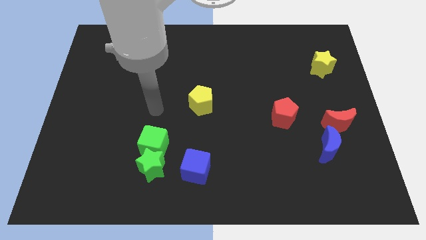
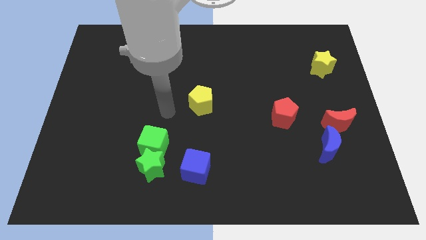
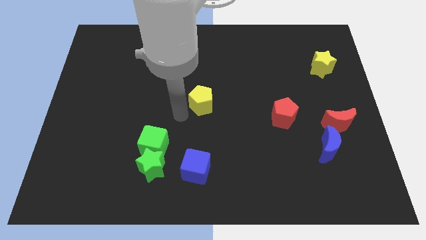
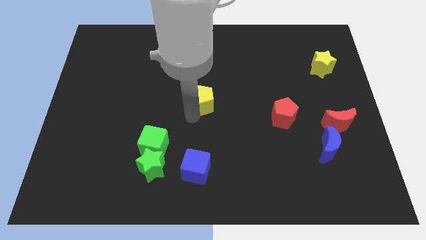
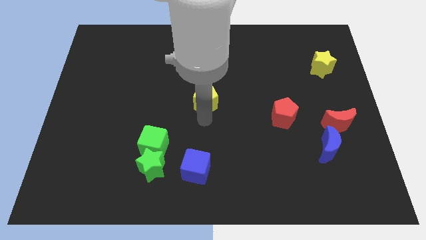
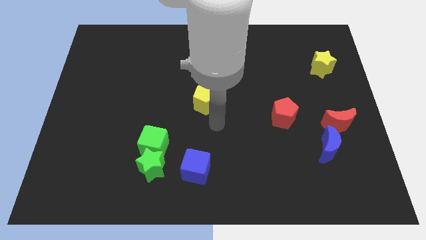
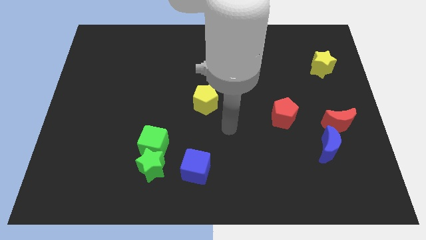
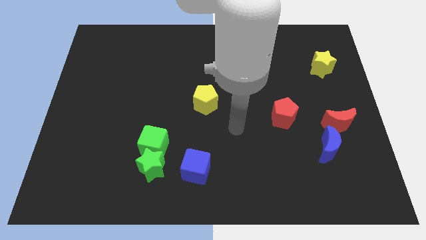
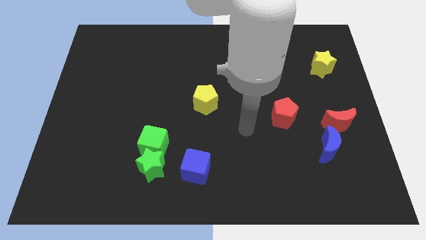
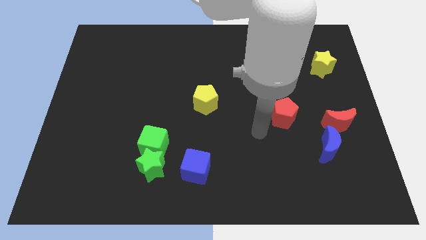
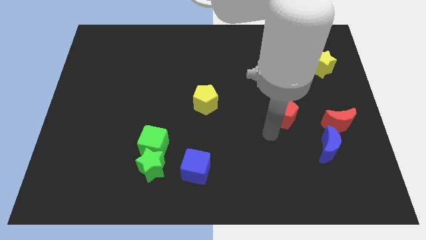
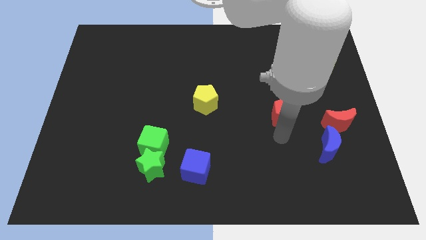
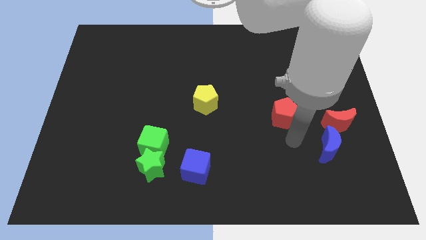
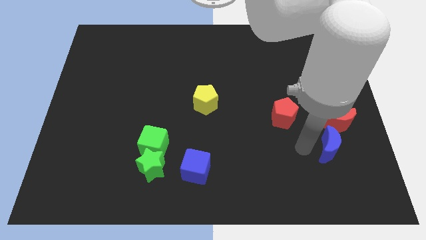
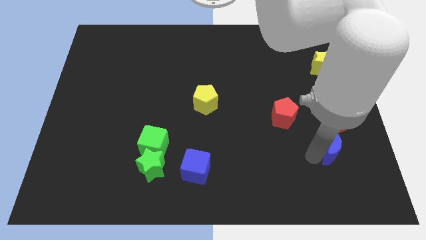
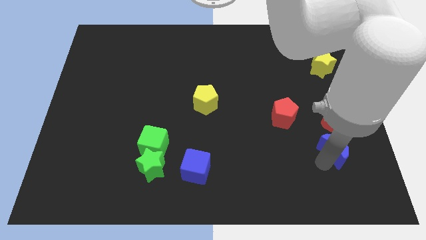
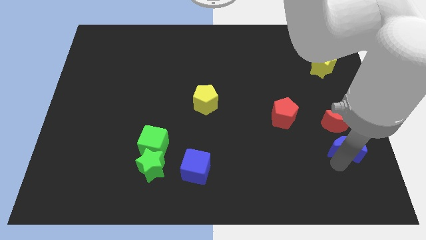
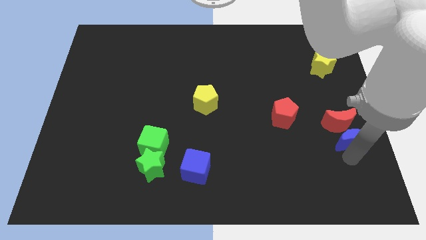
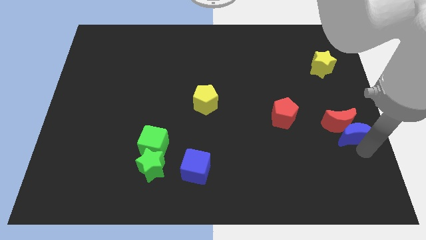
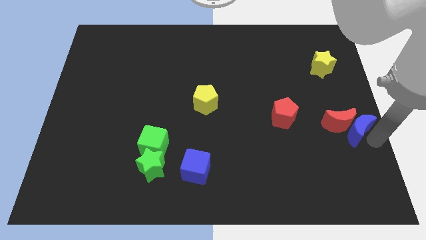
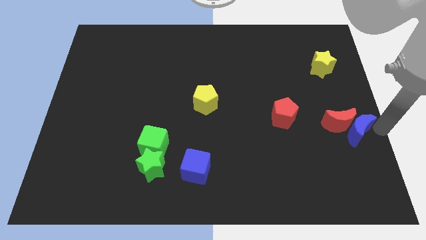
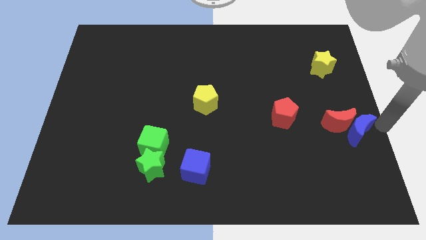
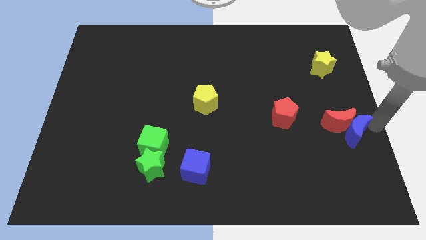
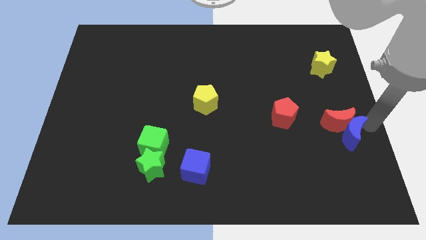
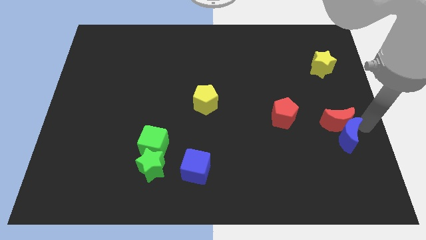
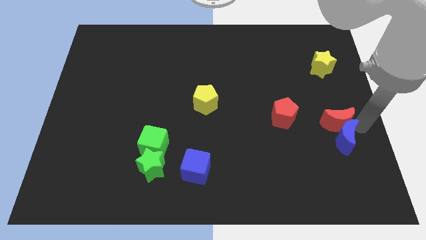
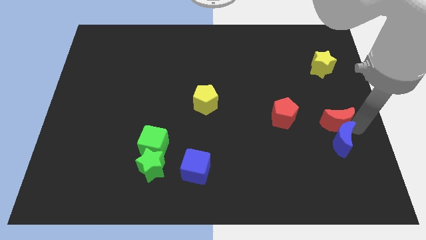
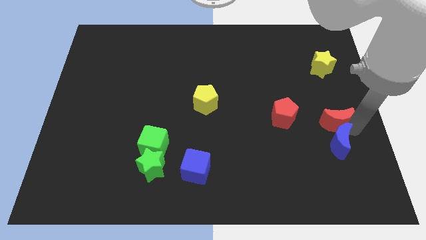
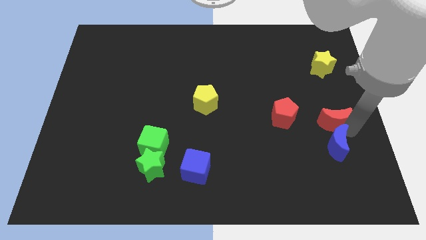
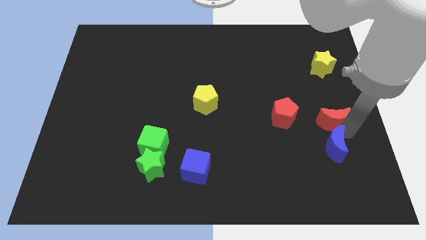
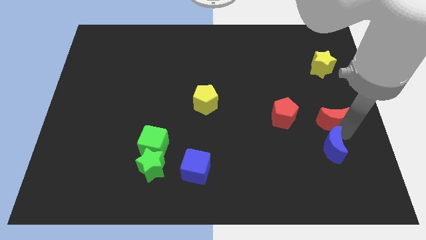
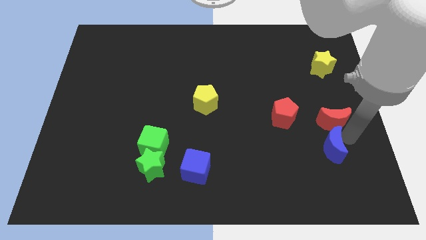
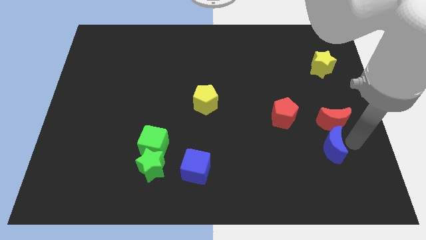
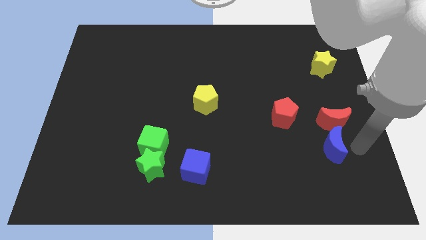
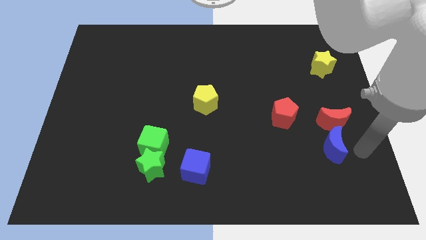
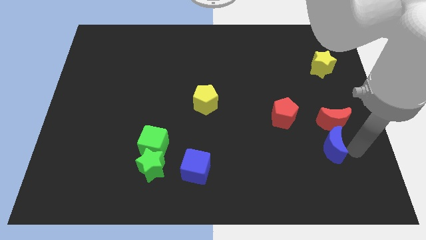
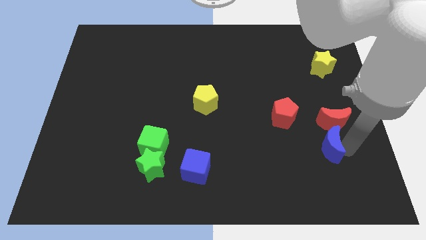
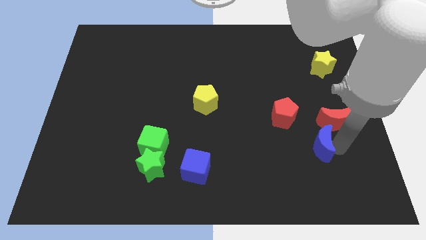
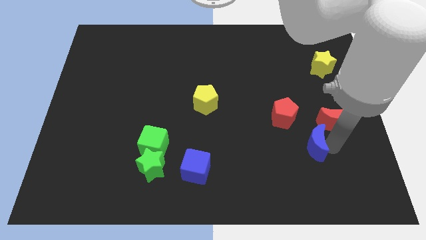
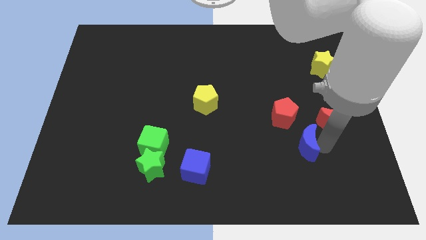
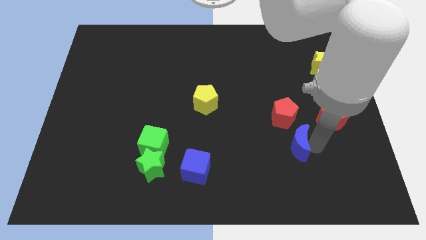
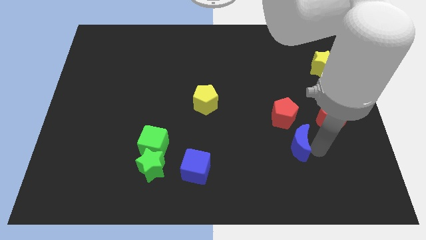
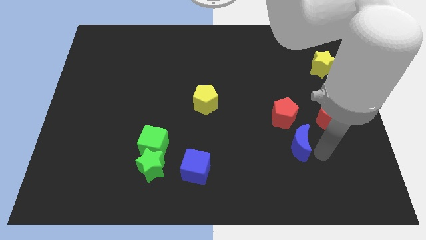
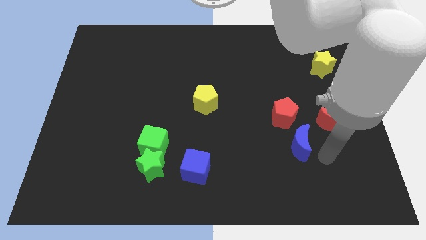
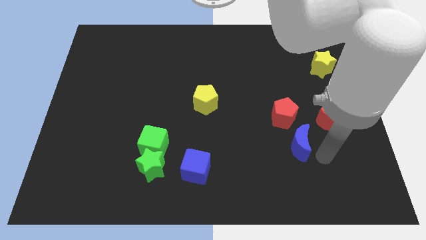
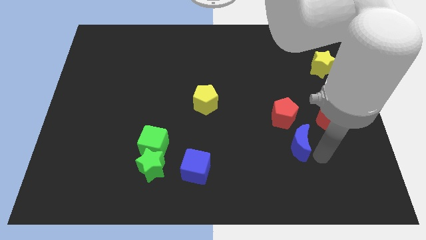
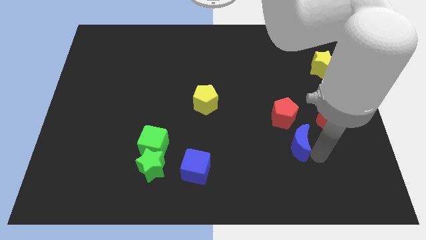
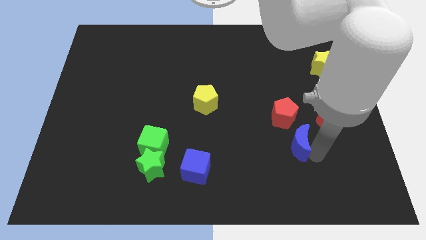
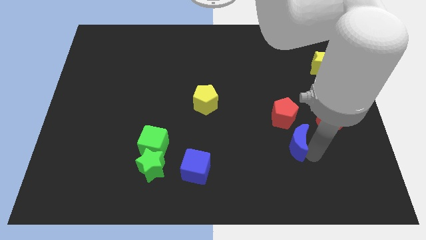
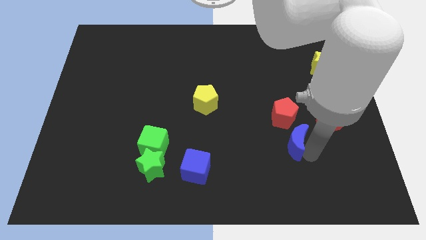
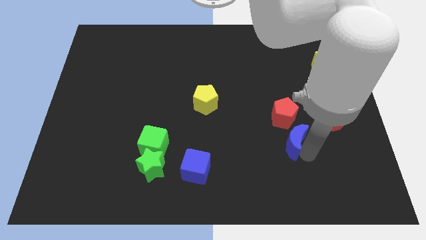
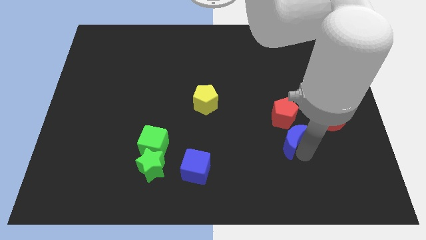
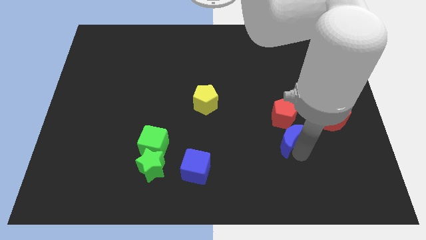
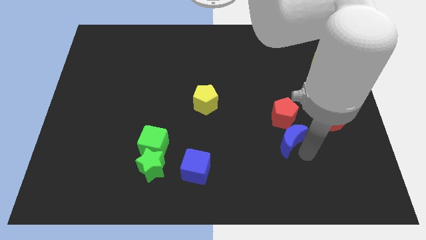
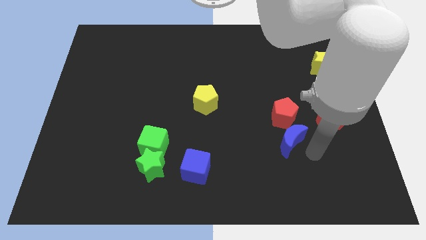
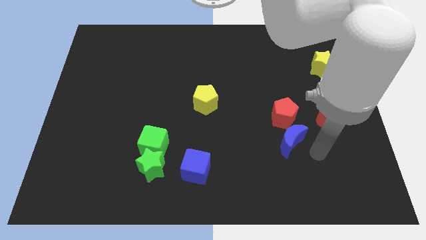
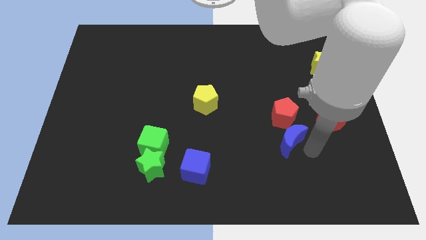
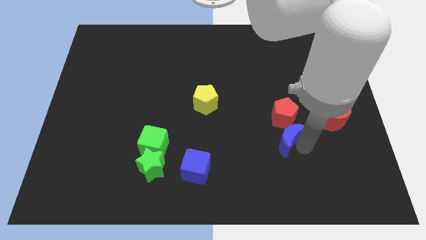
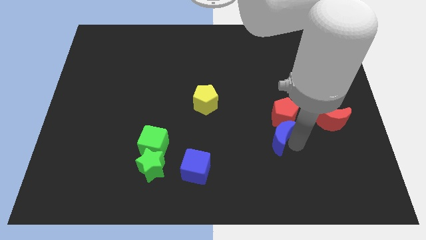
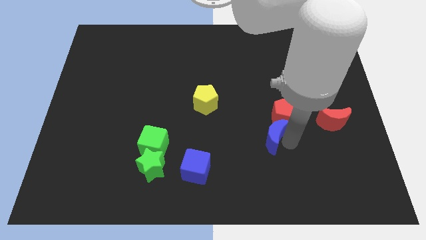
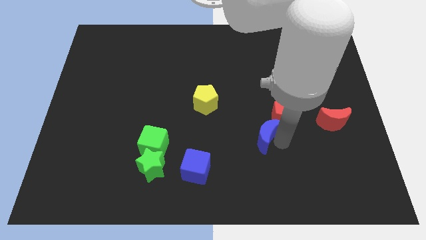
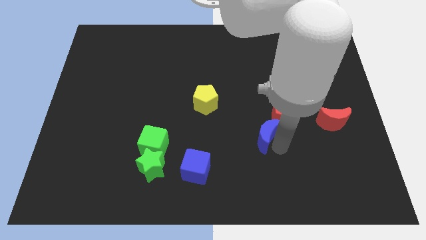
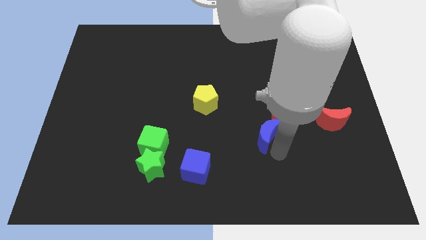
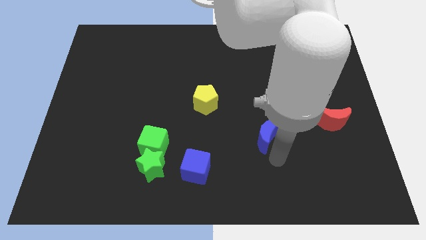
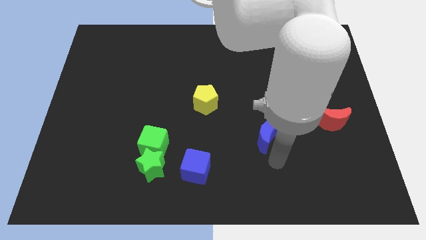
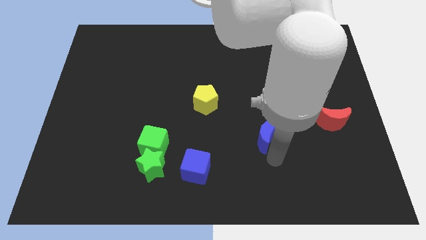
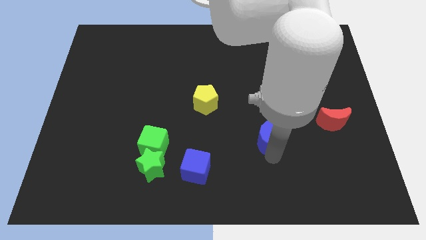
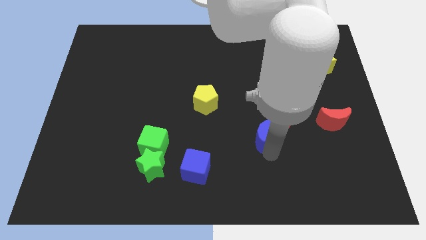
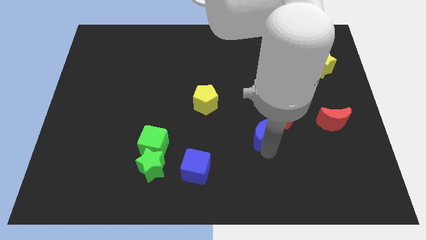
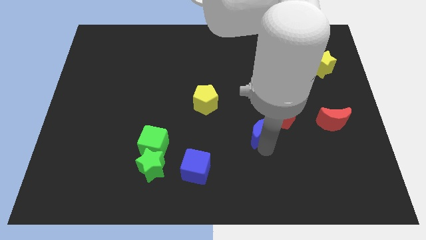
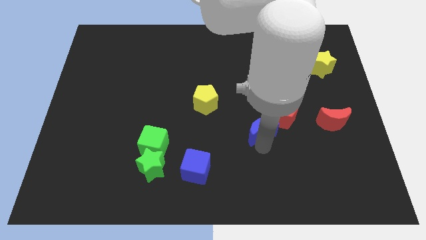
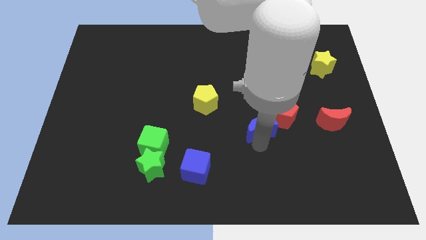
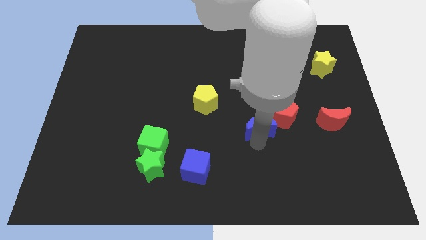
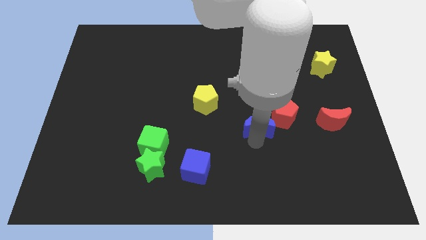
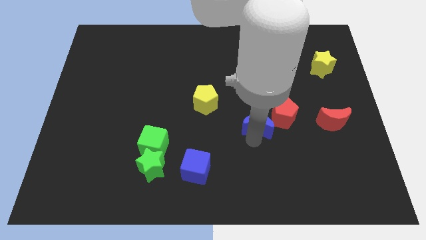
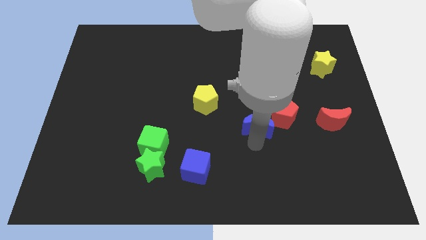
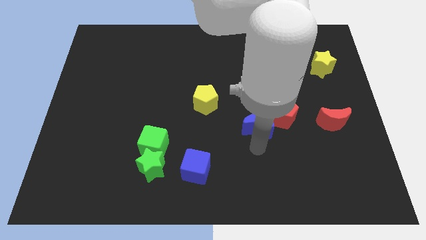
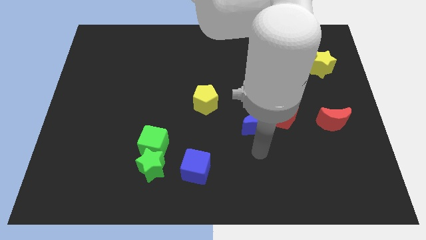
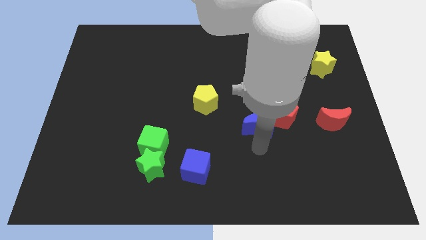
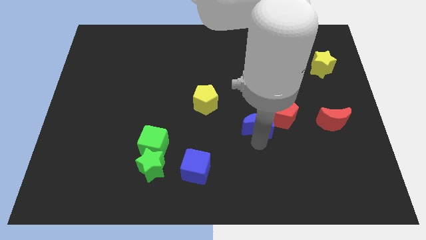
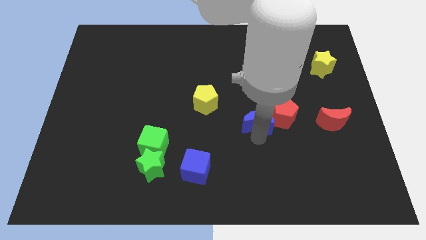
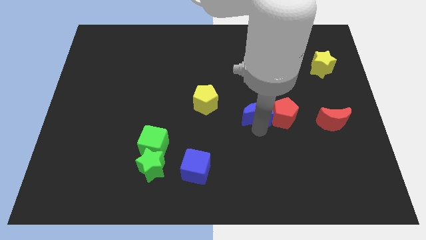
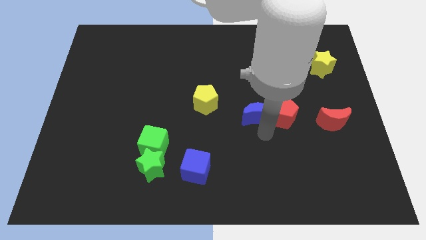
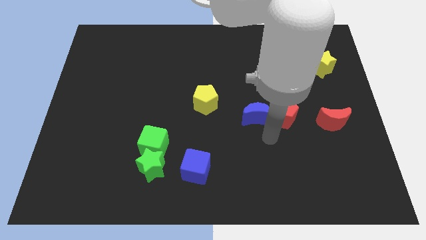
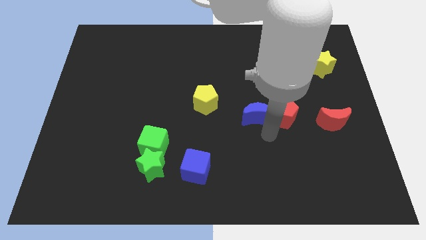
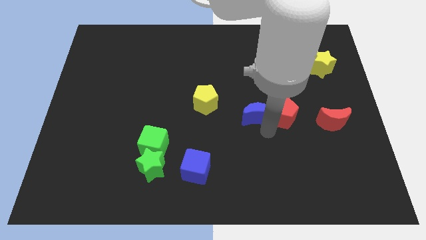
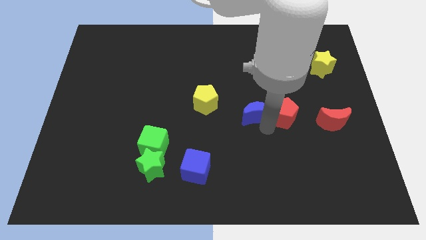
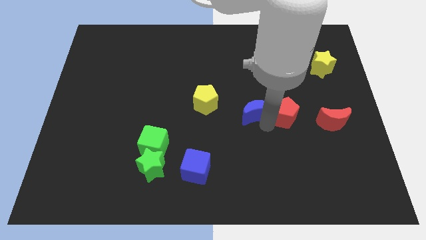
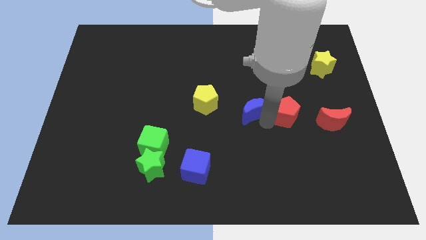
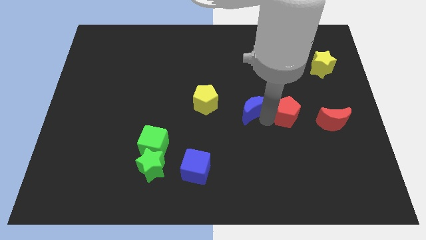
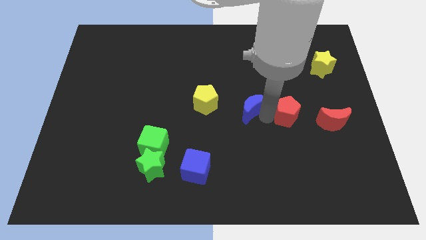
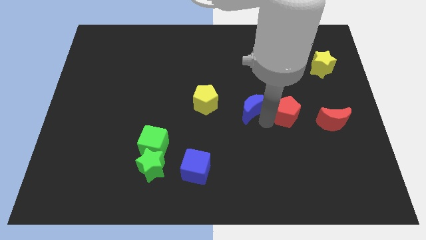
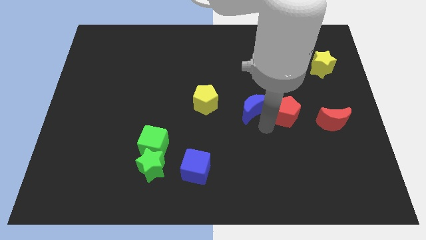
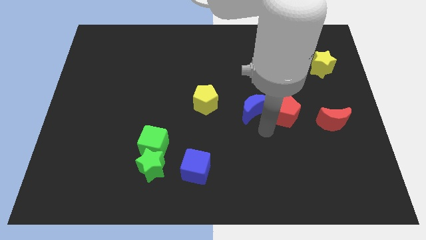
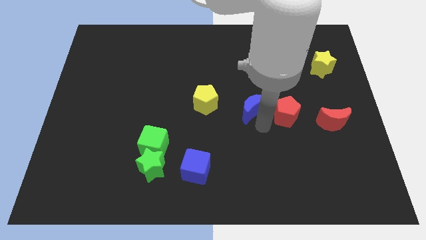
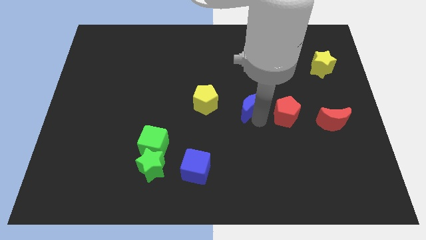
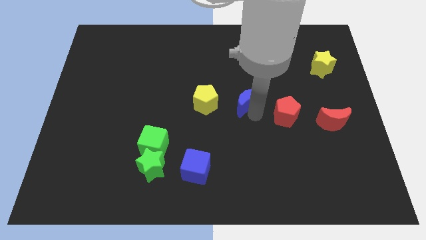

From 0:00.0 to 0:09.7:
slide the blue moon upwards and to the left diagonally
